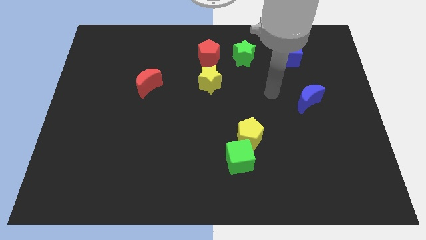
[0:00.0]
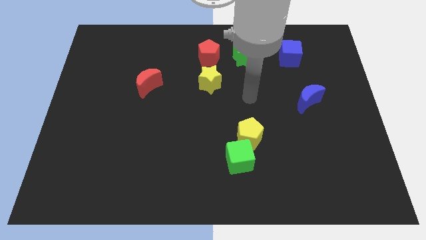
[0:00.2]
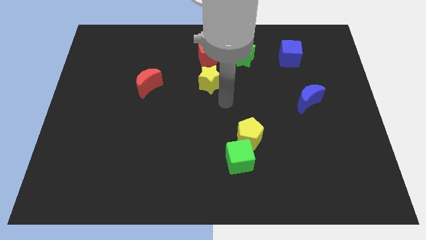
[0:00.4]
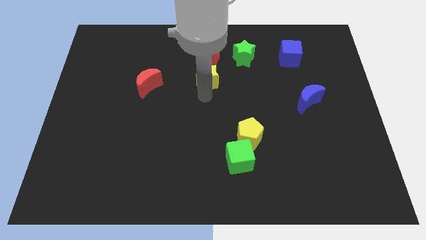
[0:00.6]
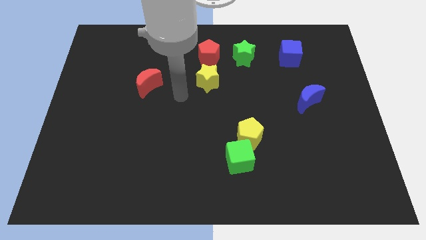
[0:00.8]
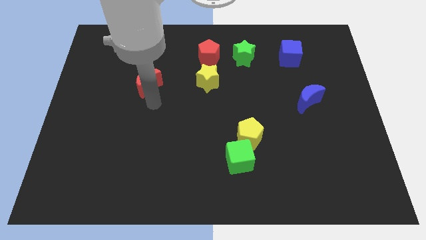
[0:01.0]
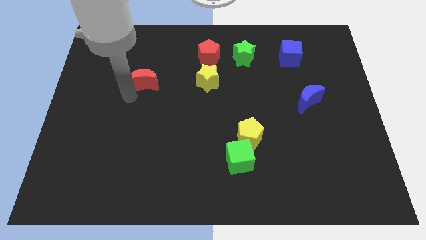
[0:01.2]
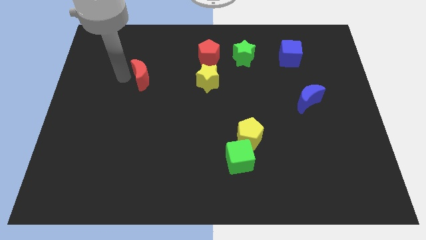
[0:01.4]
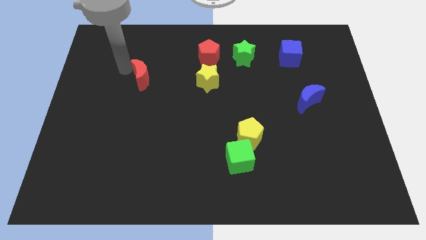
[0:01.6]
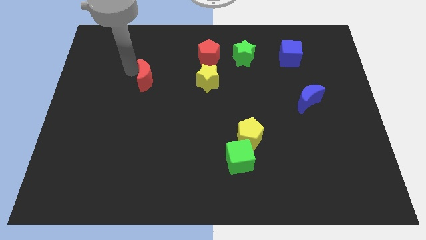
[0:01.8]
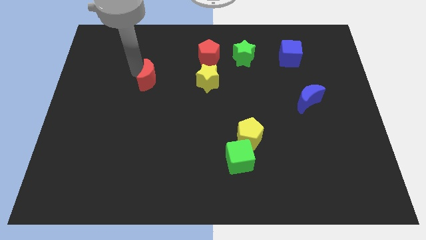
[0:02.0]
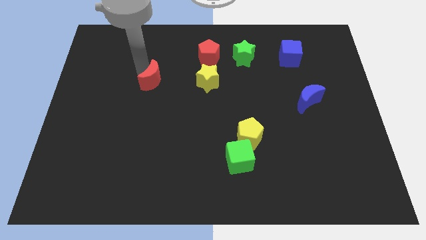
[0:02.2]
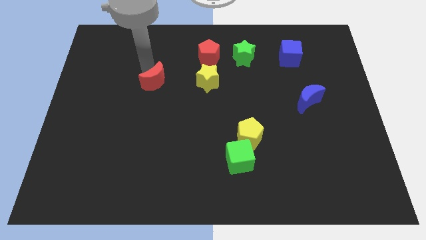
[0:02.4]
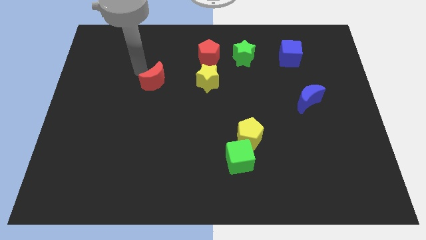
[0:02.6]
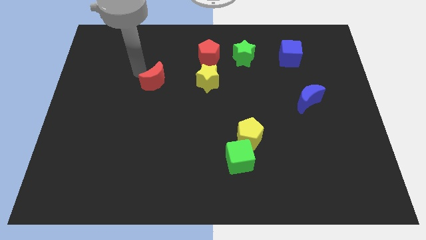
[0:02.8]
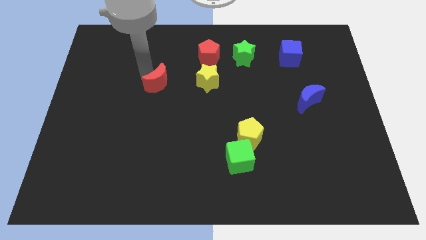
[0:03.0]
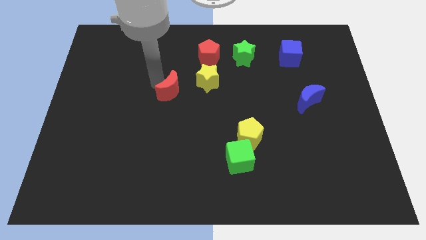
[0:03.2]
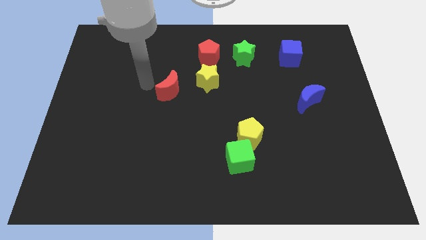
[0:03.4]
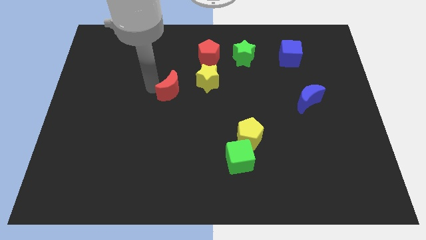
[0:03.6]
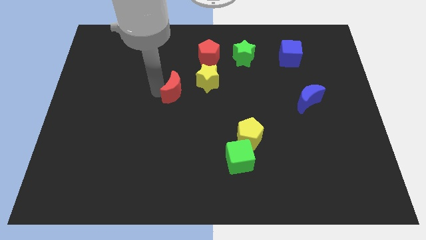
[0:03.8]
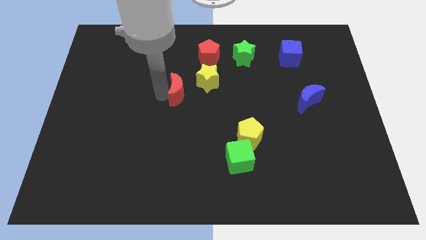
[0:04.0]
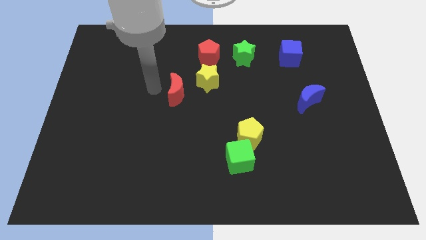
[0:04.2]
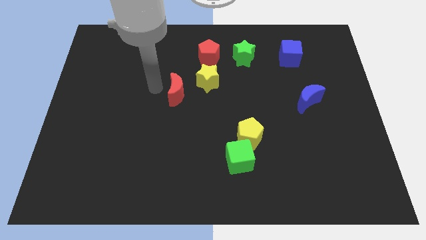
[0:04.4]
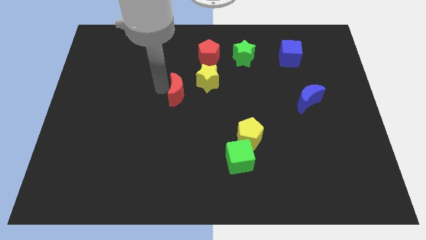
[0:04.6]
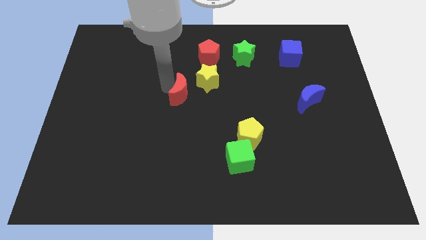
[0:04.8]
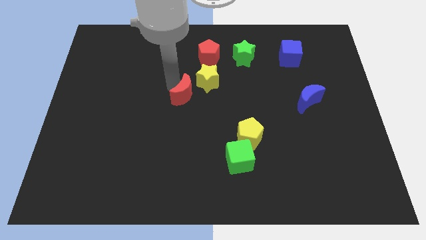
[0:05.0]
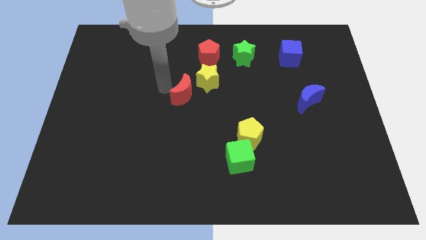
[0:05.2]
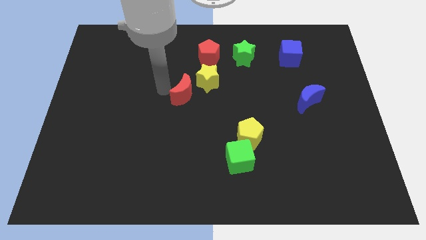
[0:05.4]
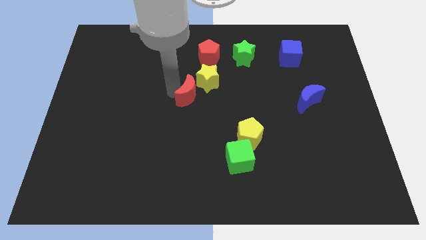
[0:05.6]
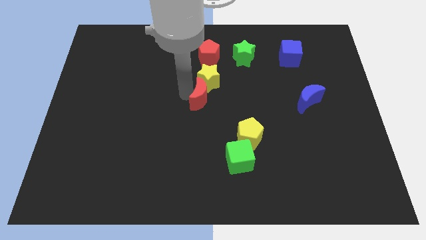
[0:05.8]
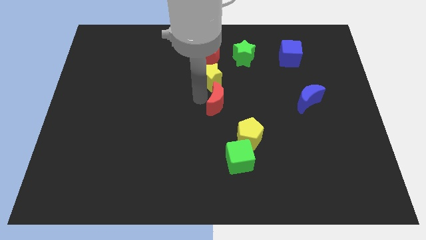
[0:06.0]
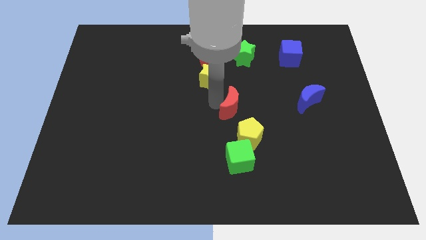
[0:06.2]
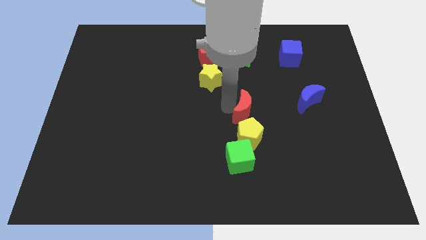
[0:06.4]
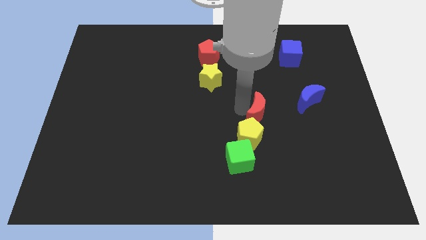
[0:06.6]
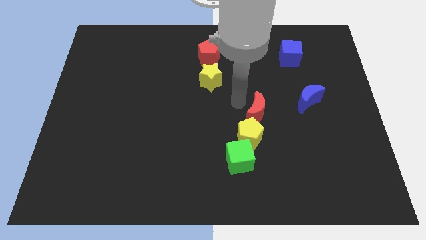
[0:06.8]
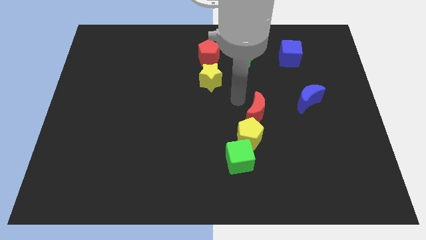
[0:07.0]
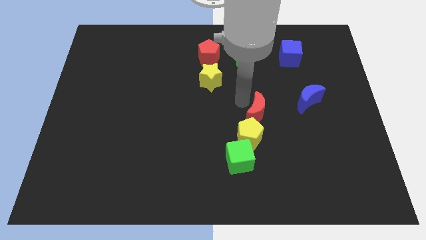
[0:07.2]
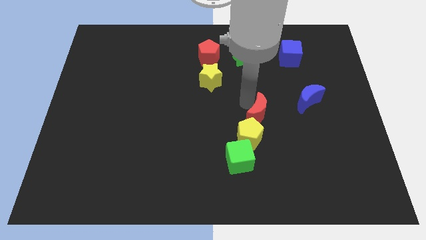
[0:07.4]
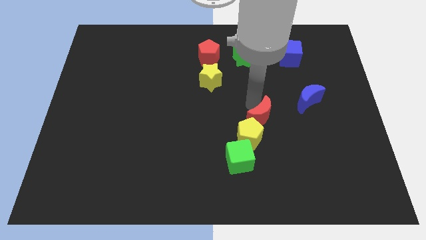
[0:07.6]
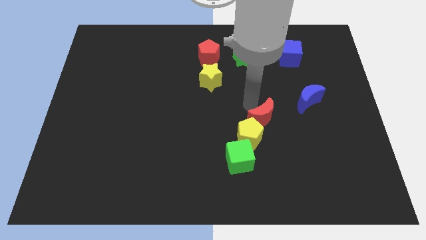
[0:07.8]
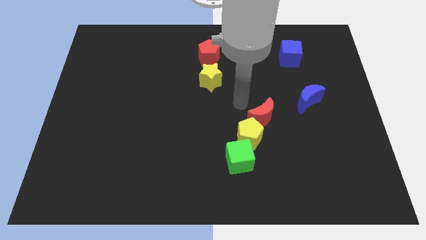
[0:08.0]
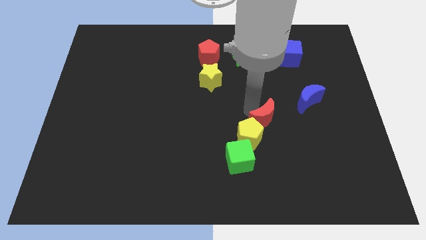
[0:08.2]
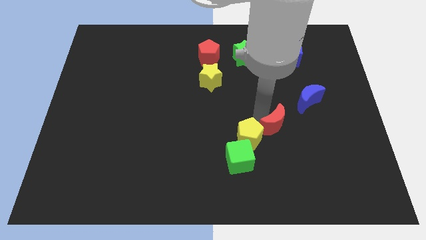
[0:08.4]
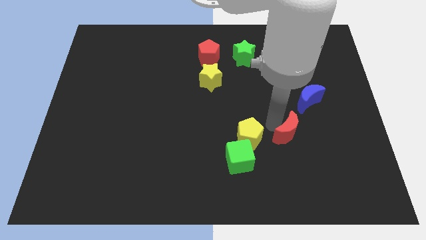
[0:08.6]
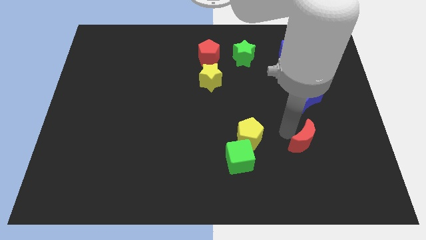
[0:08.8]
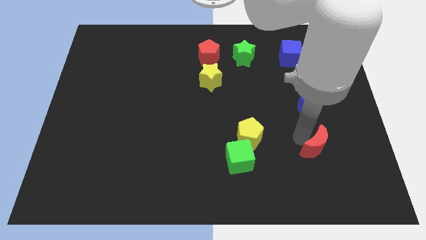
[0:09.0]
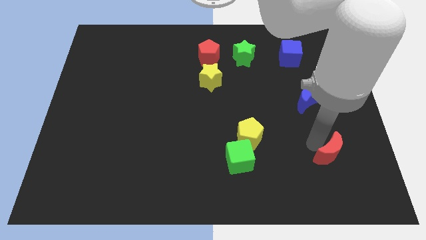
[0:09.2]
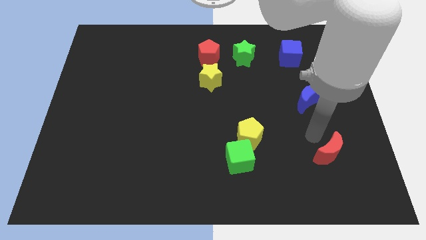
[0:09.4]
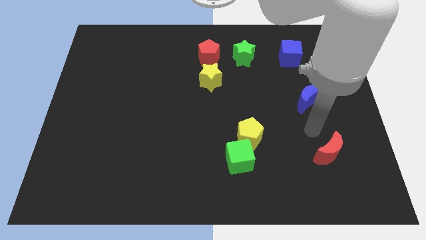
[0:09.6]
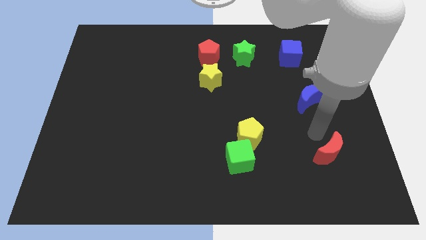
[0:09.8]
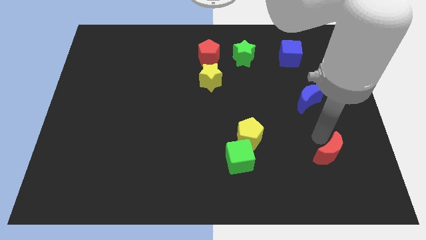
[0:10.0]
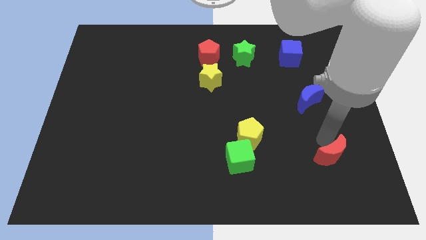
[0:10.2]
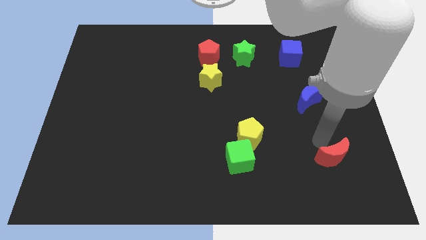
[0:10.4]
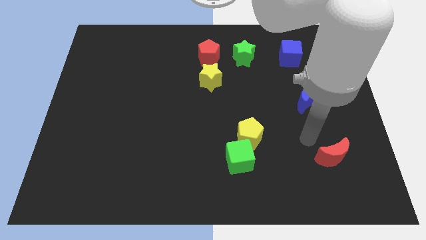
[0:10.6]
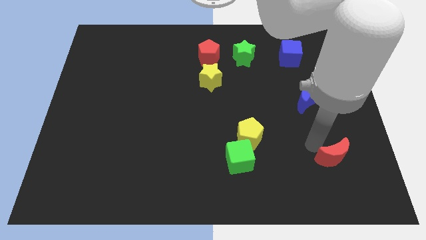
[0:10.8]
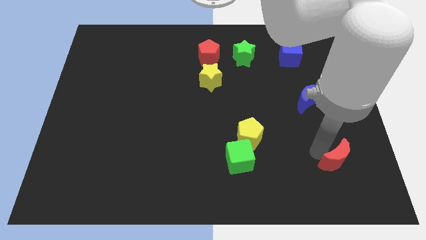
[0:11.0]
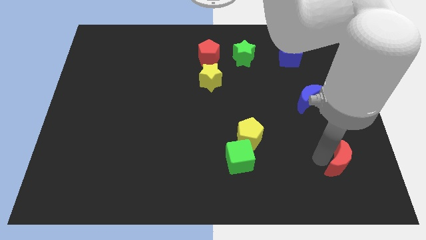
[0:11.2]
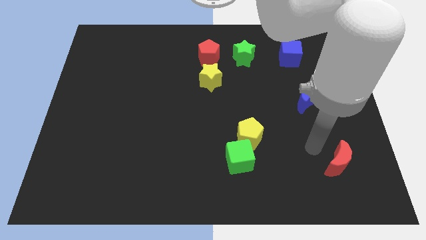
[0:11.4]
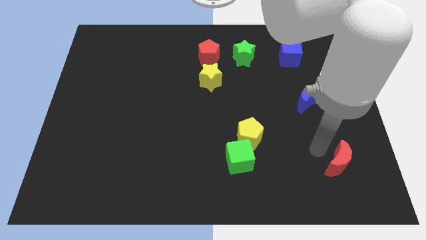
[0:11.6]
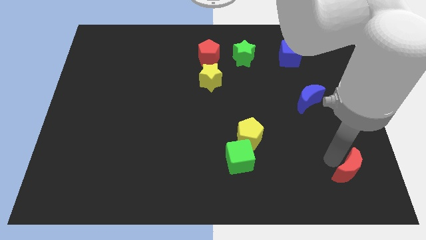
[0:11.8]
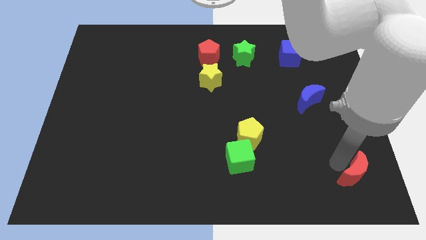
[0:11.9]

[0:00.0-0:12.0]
slide the red moon to the lower right corner
